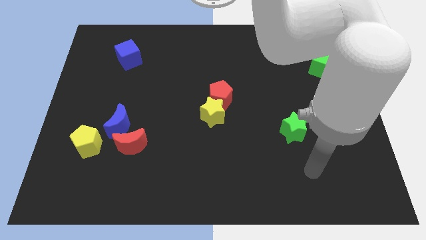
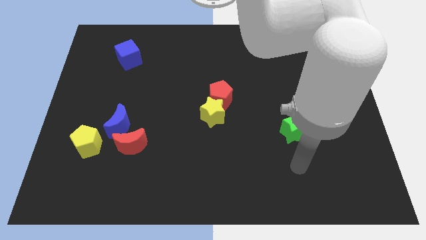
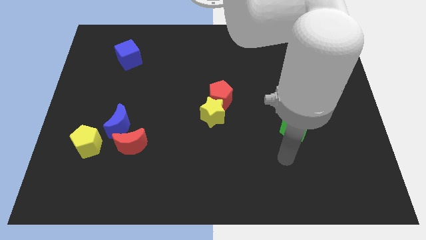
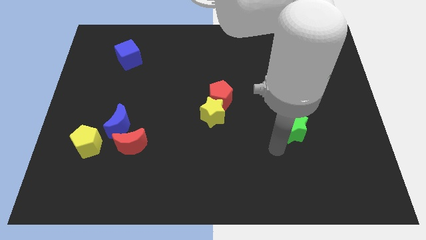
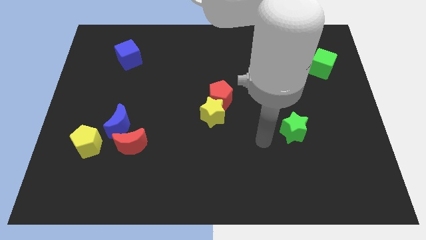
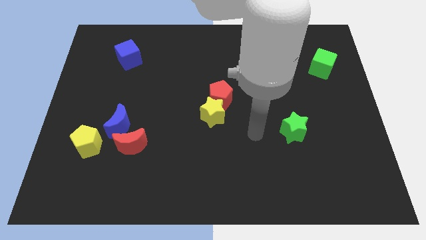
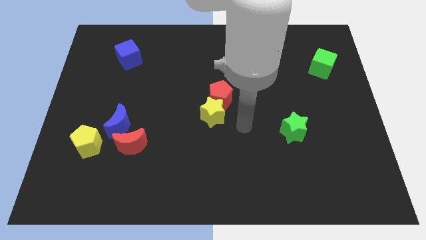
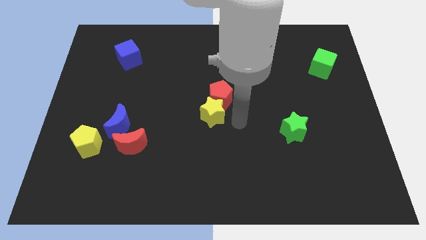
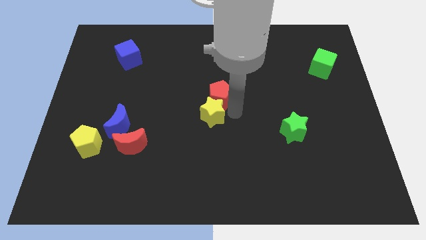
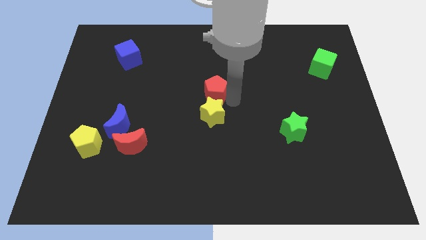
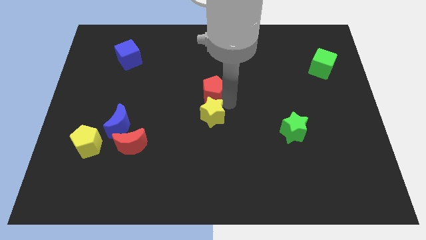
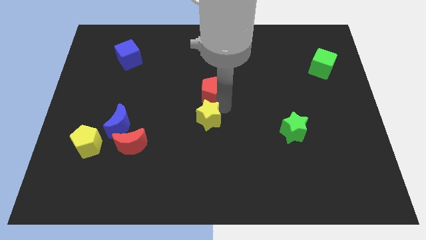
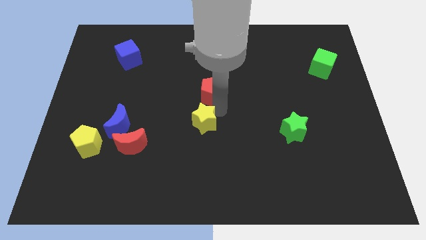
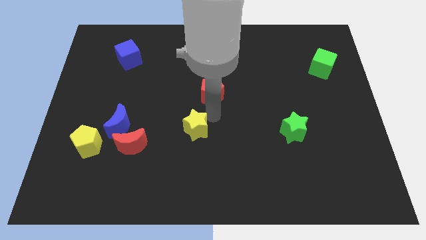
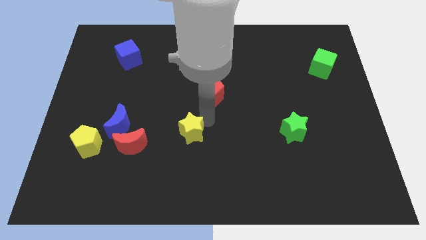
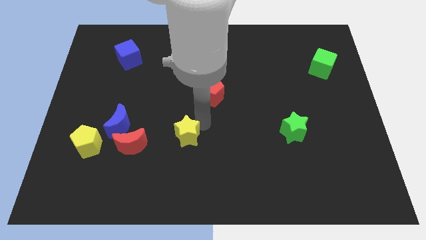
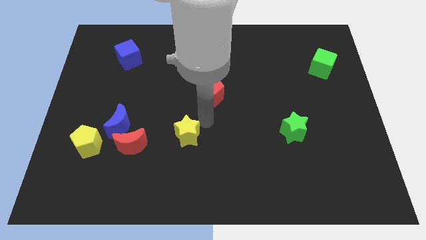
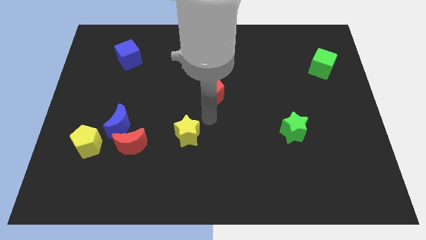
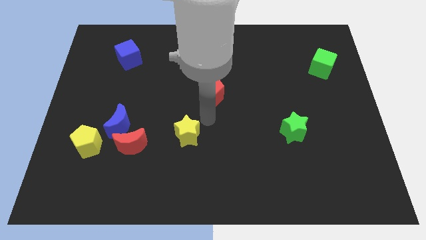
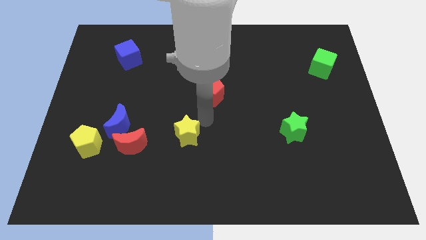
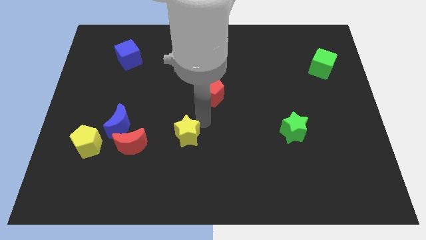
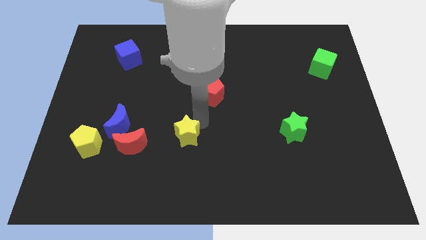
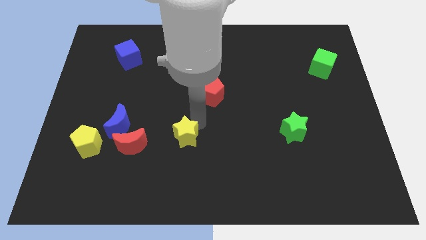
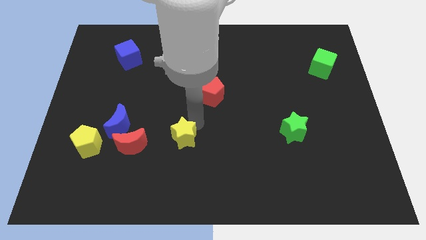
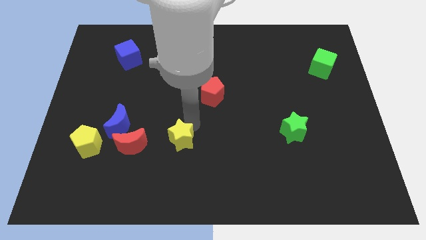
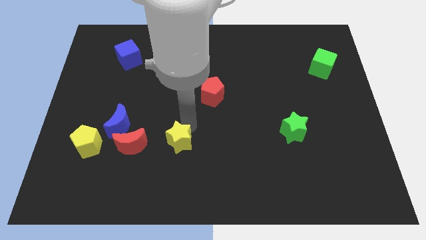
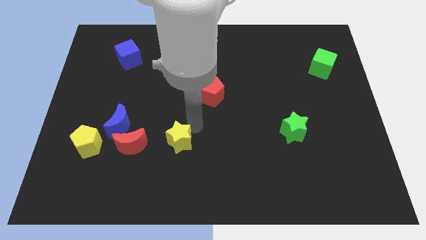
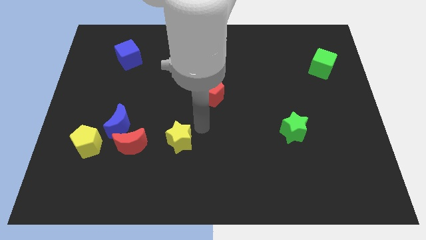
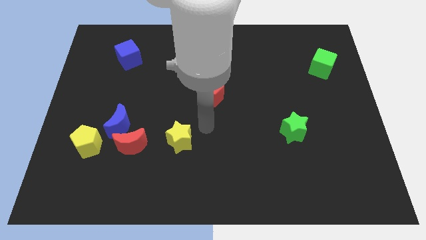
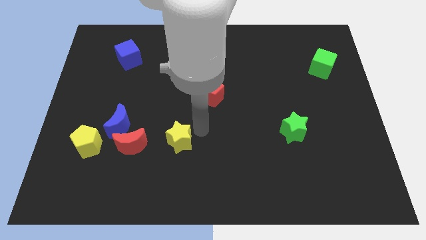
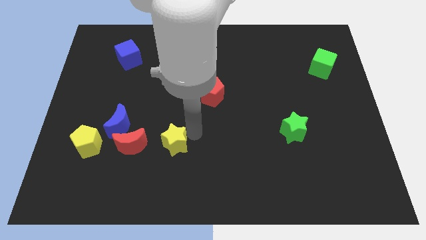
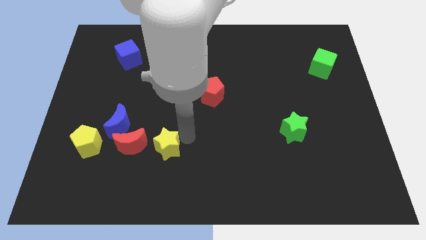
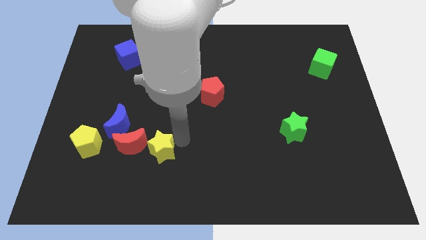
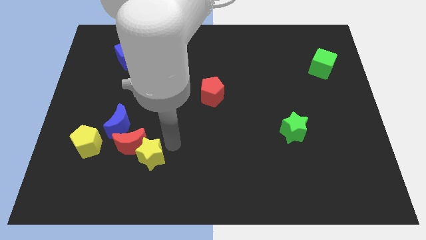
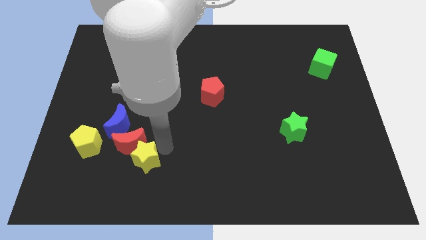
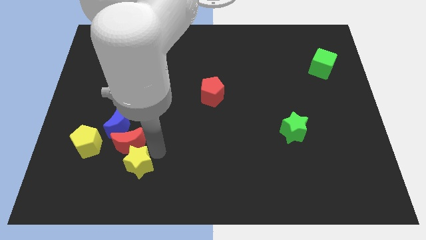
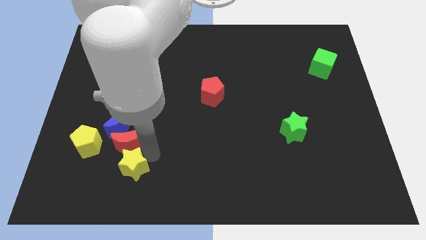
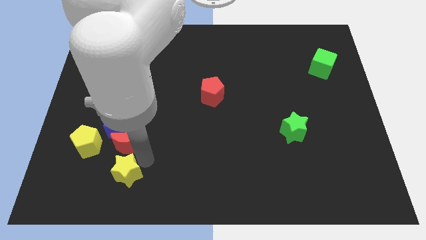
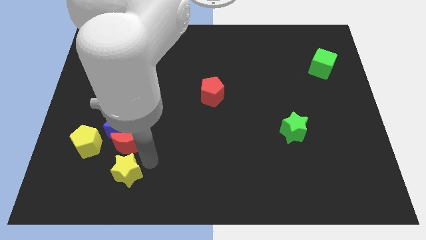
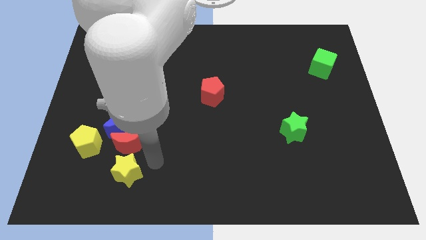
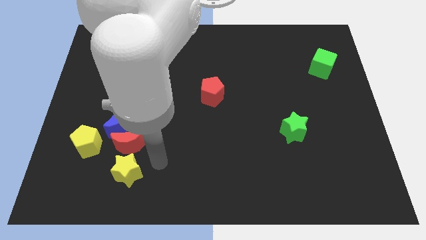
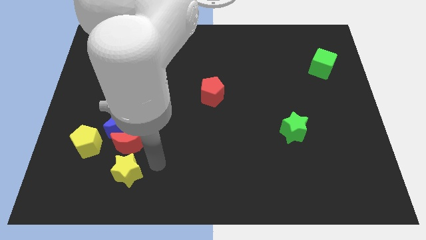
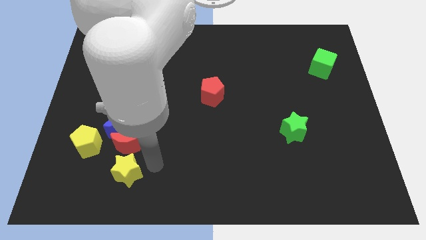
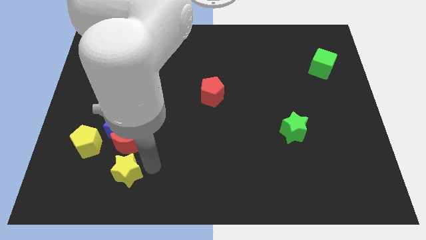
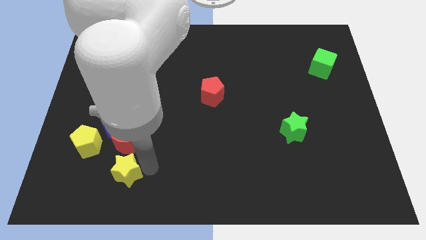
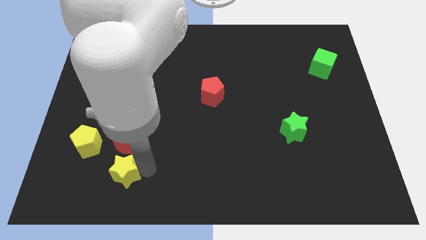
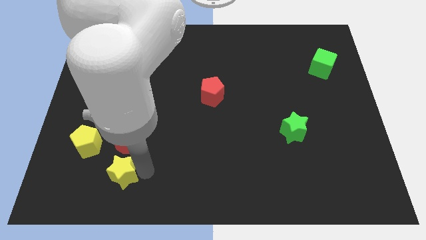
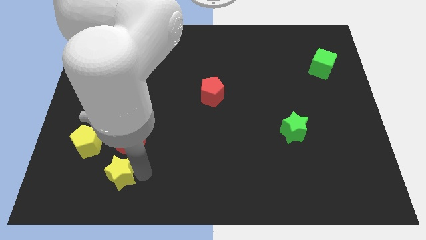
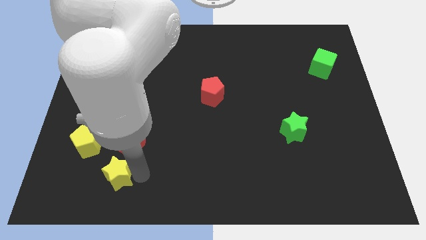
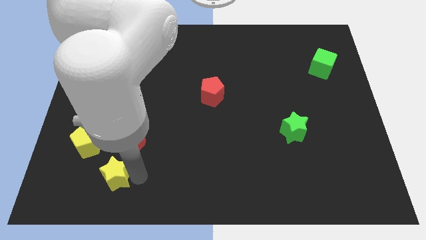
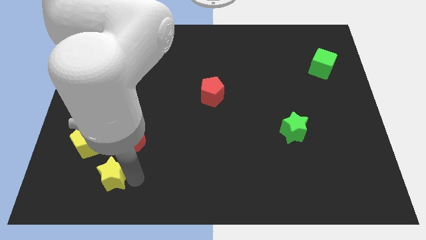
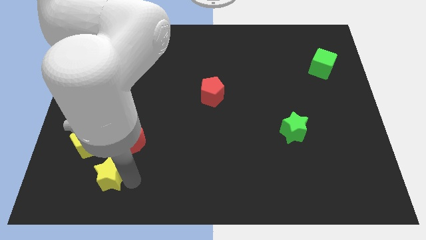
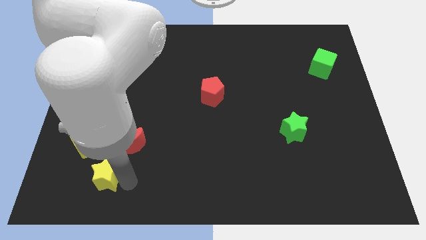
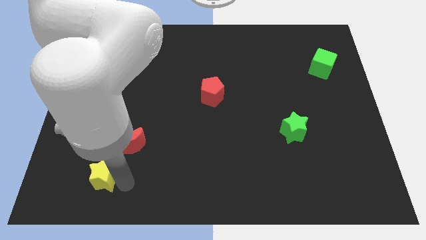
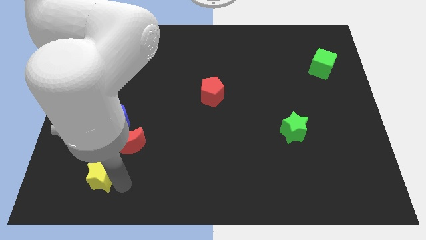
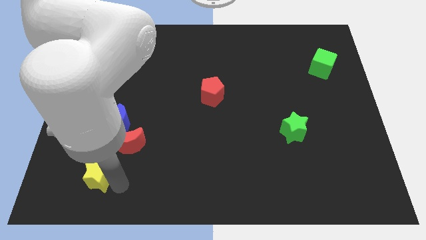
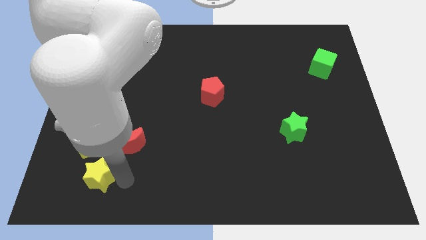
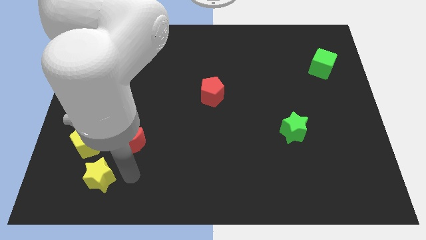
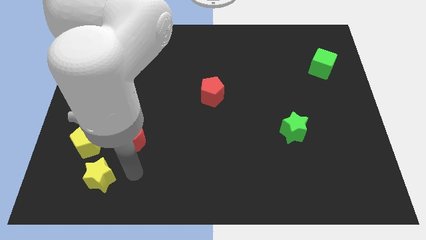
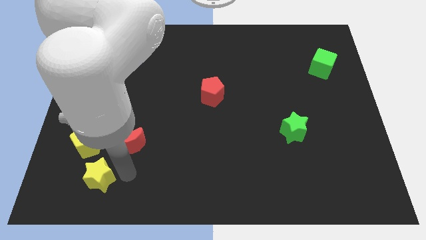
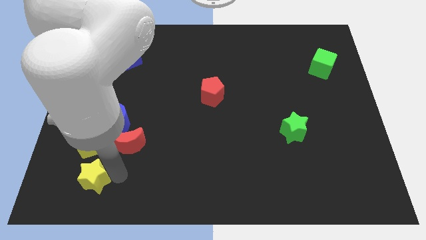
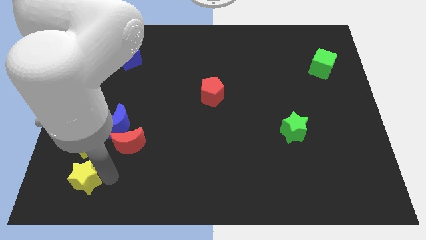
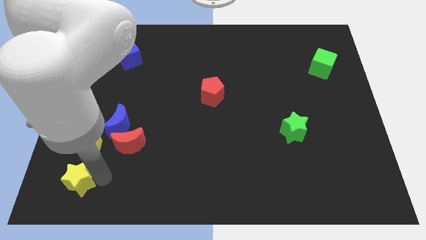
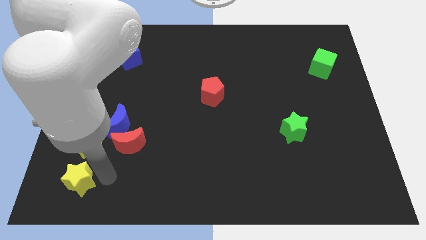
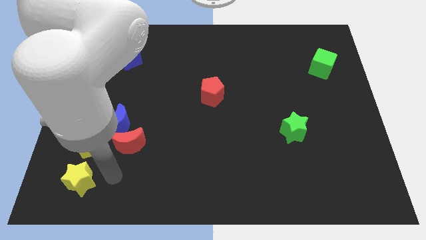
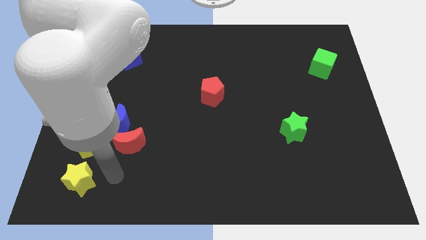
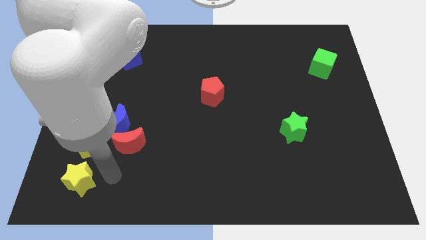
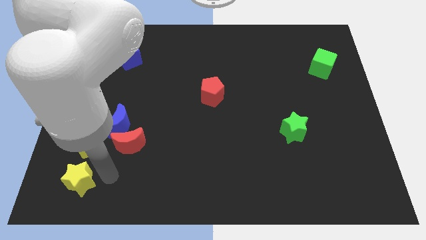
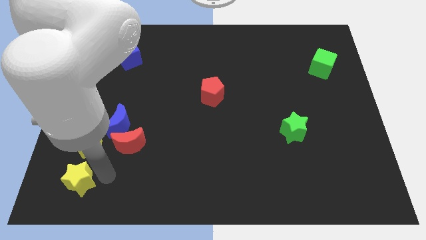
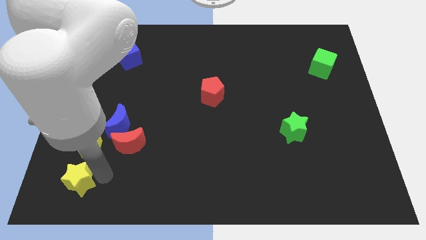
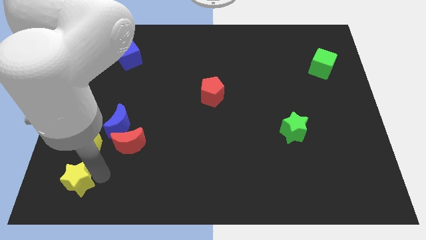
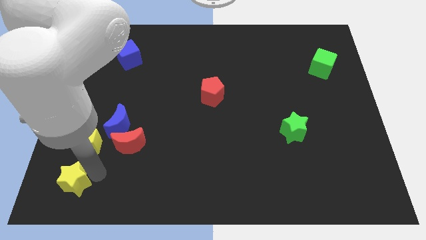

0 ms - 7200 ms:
move the yellow star to the bottom left

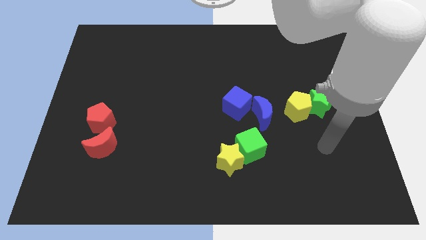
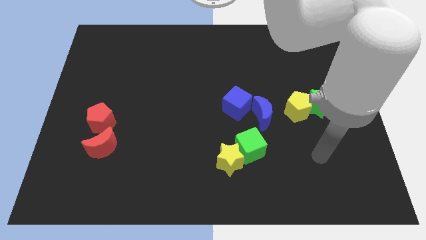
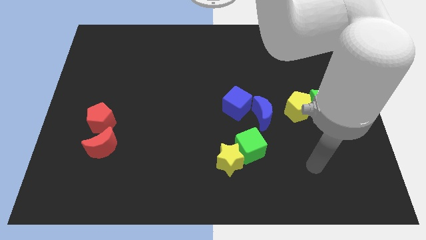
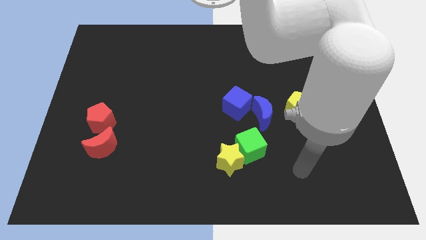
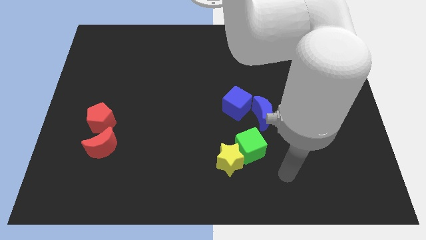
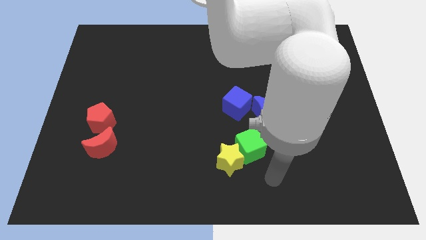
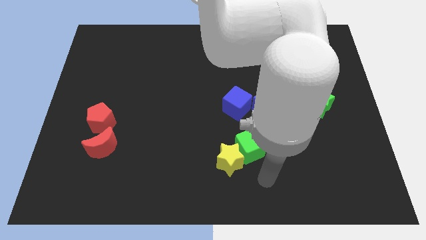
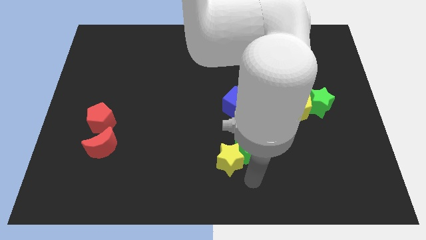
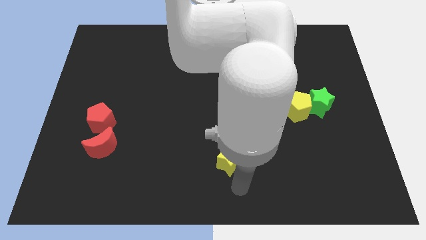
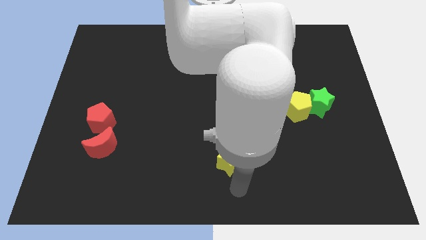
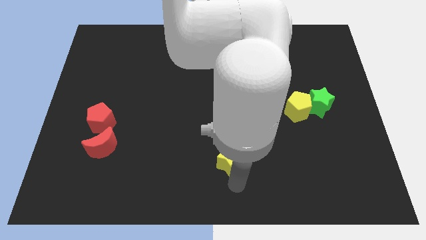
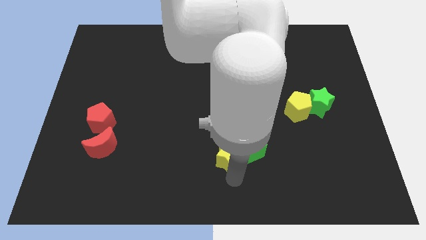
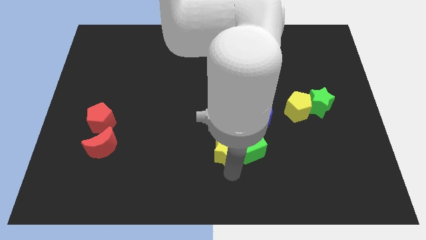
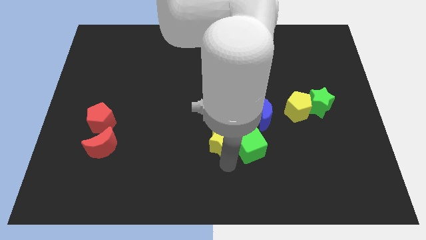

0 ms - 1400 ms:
put the yellow star to the center of the board
